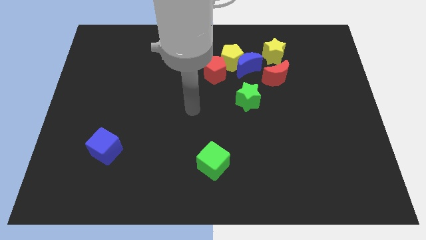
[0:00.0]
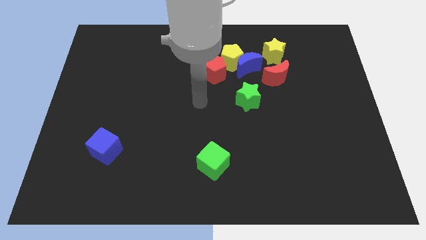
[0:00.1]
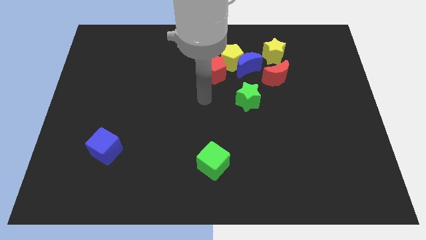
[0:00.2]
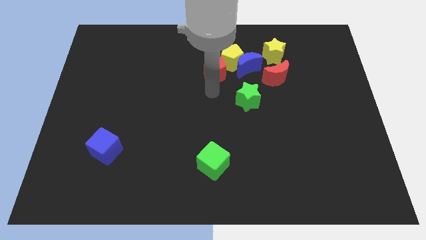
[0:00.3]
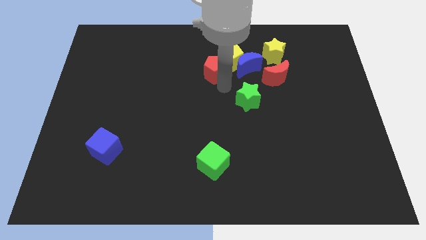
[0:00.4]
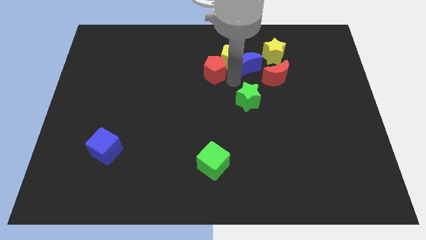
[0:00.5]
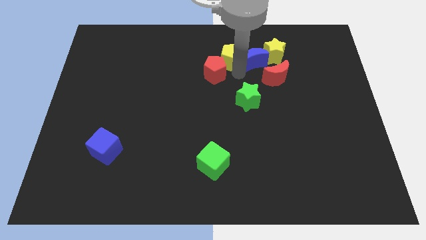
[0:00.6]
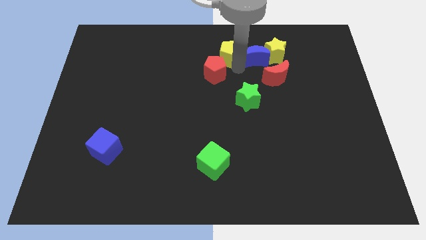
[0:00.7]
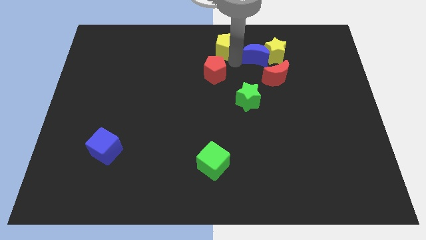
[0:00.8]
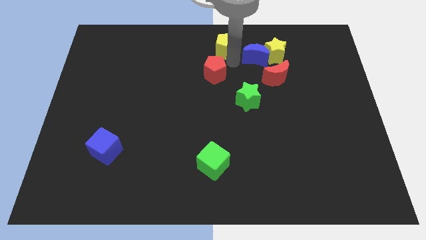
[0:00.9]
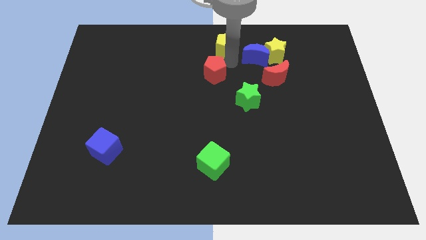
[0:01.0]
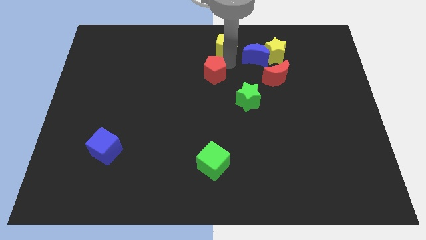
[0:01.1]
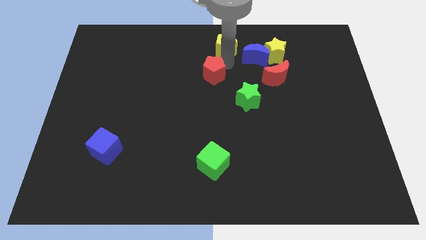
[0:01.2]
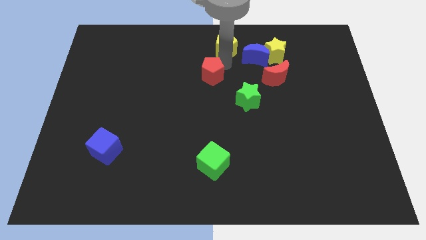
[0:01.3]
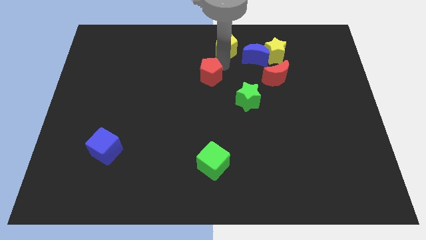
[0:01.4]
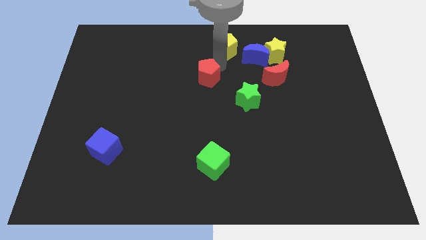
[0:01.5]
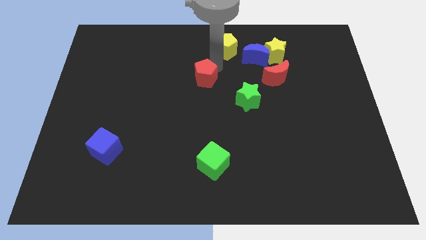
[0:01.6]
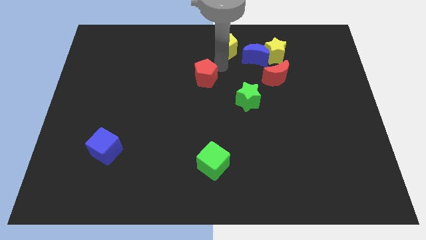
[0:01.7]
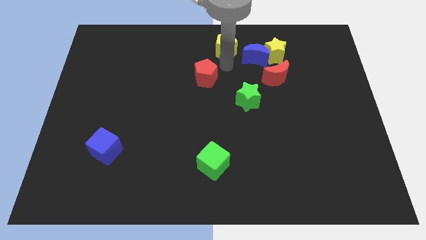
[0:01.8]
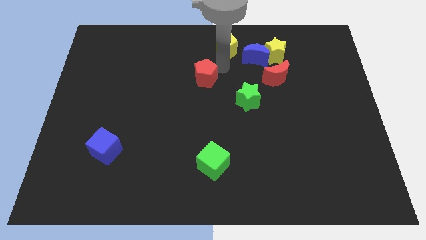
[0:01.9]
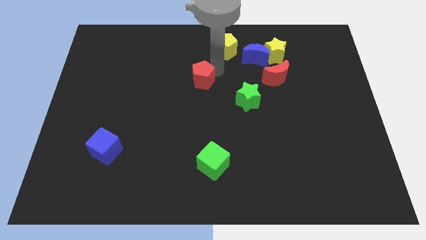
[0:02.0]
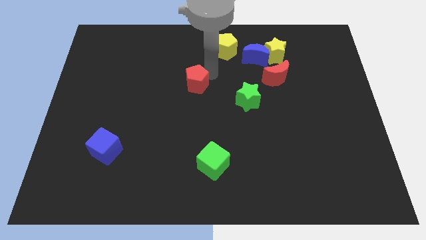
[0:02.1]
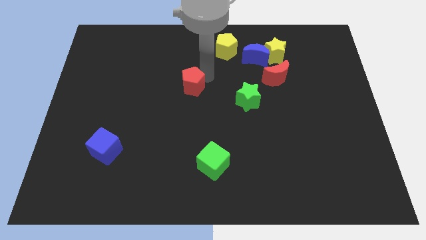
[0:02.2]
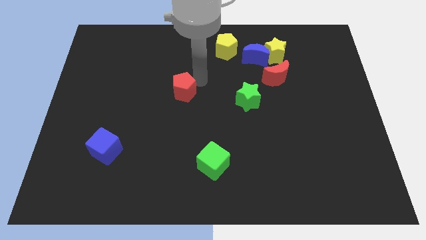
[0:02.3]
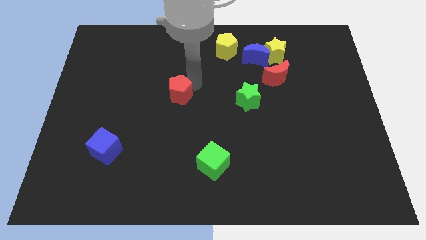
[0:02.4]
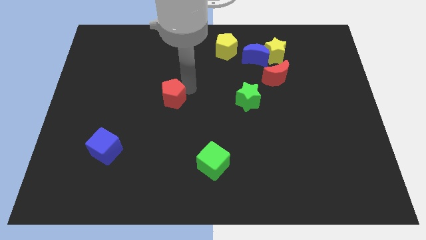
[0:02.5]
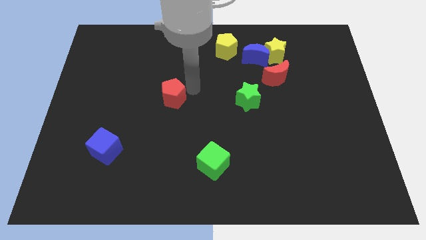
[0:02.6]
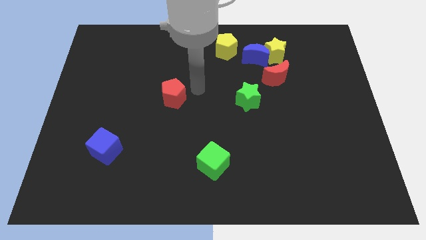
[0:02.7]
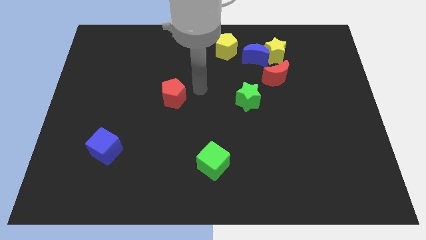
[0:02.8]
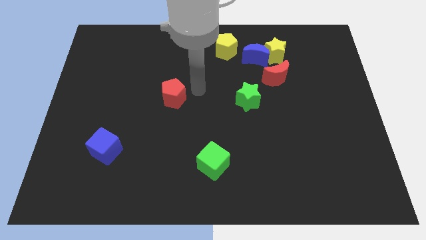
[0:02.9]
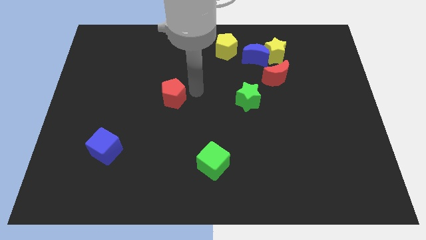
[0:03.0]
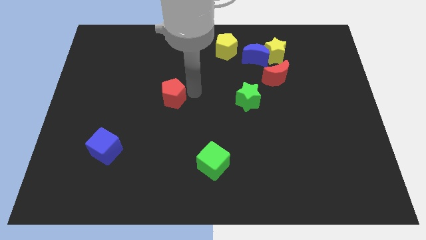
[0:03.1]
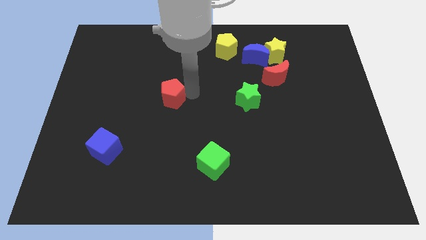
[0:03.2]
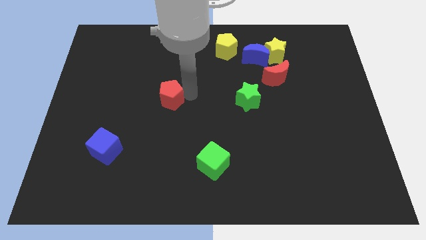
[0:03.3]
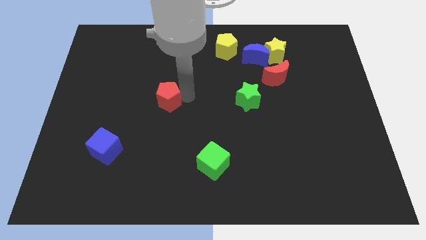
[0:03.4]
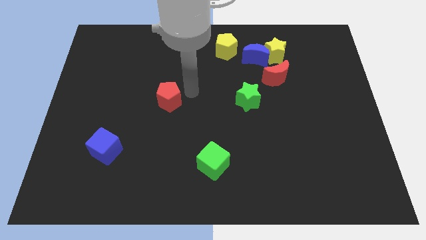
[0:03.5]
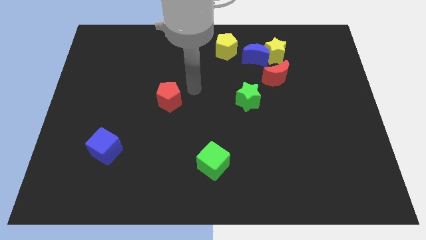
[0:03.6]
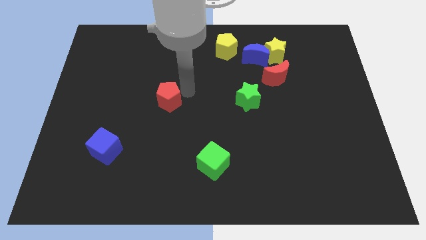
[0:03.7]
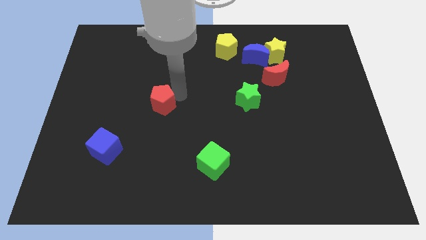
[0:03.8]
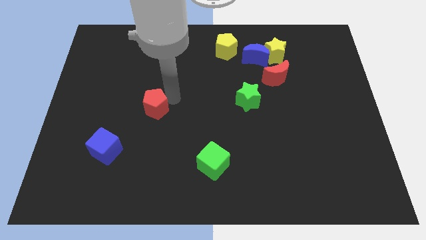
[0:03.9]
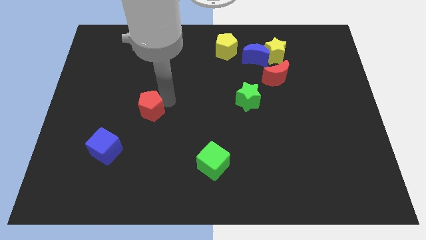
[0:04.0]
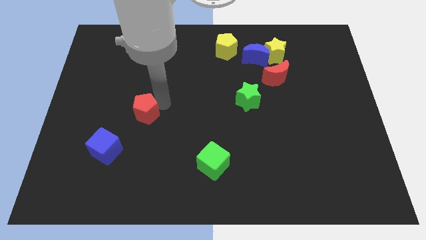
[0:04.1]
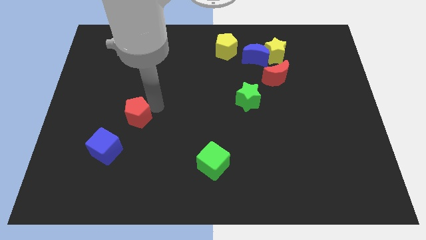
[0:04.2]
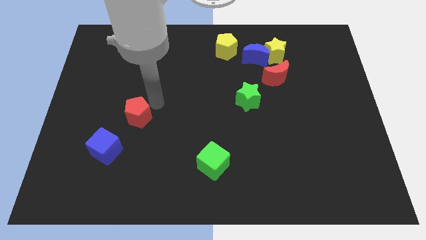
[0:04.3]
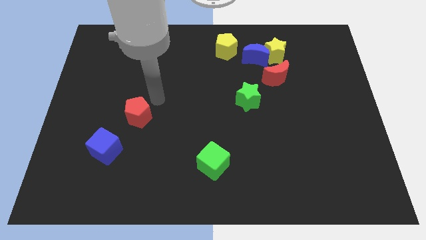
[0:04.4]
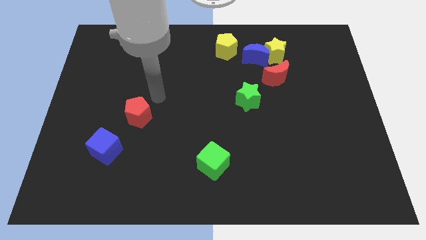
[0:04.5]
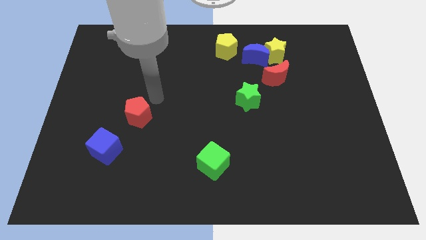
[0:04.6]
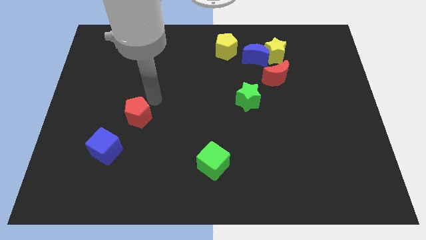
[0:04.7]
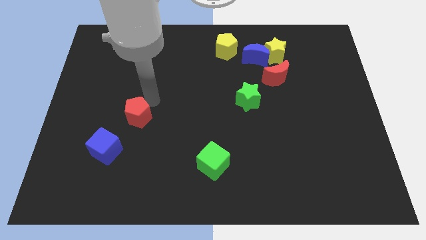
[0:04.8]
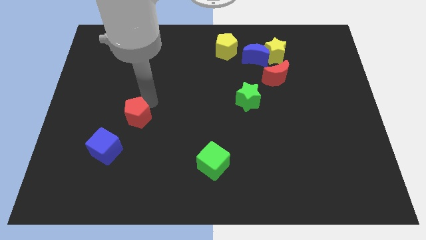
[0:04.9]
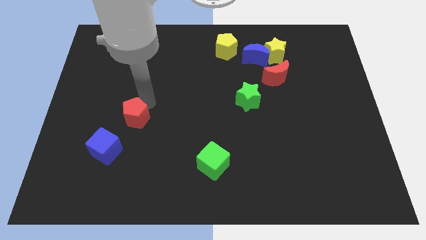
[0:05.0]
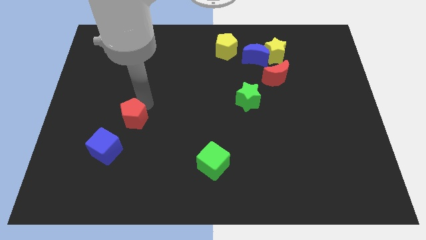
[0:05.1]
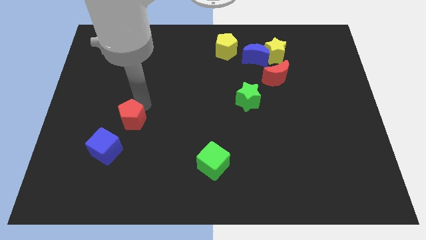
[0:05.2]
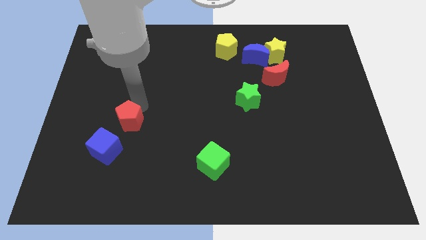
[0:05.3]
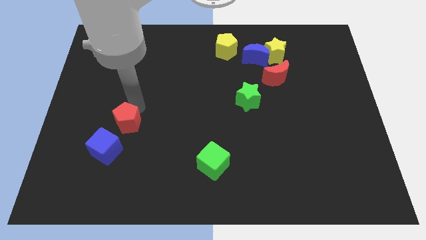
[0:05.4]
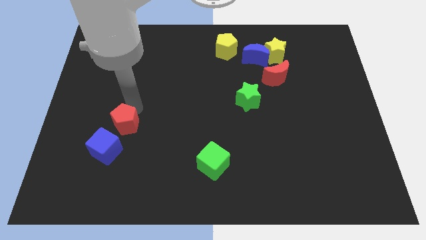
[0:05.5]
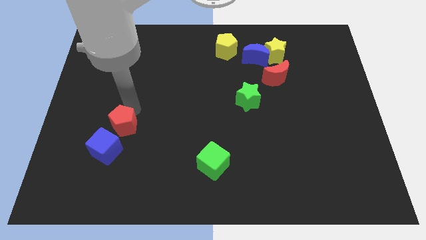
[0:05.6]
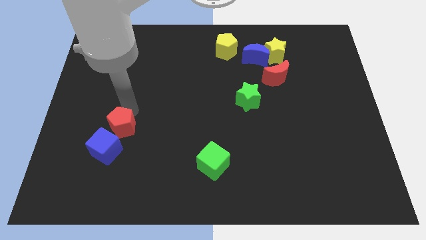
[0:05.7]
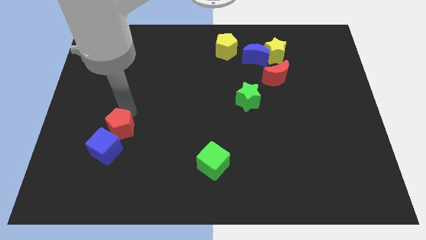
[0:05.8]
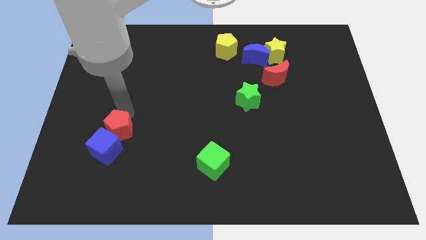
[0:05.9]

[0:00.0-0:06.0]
push the red pentagon to the blue cube

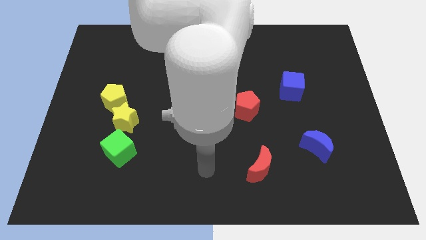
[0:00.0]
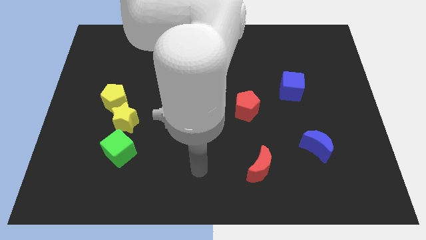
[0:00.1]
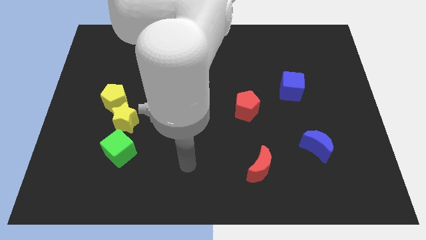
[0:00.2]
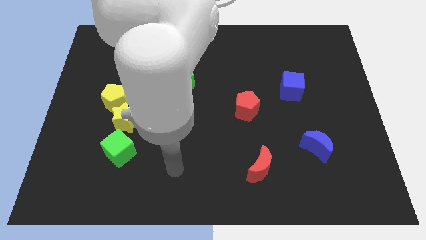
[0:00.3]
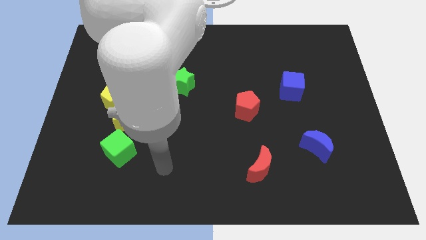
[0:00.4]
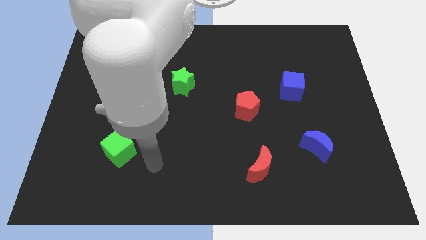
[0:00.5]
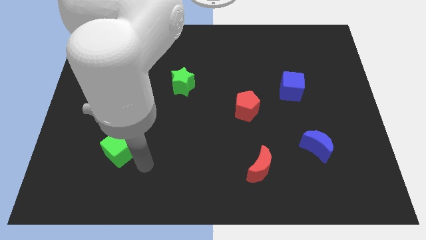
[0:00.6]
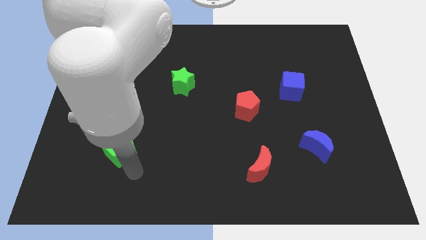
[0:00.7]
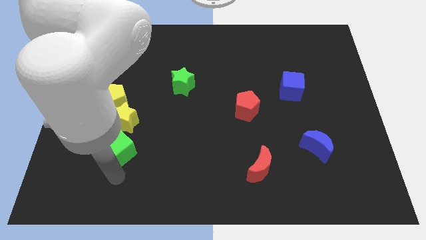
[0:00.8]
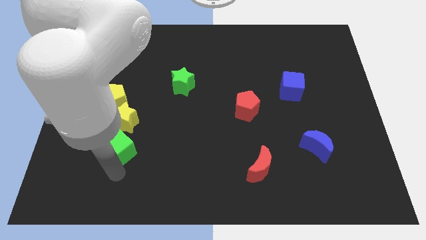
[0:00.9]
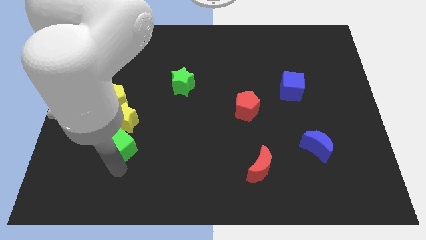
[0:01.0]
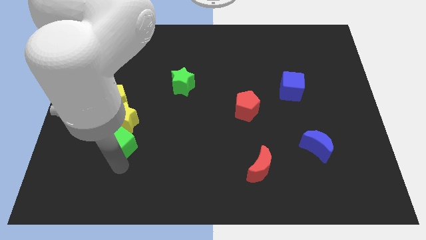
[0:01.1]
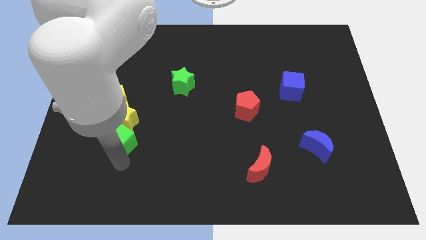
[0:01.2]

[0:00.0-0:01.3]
put the green cube towards the yellow star

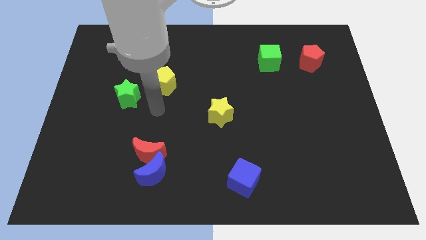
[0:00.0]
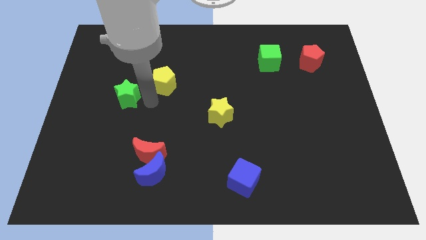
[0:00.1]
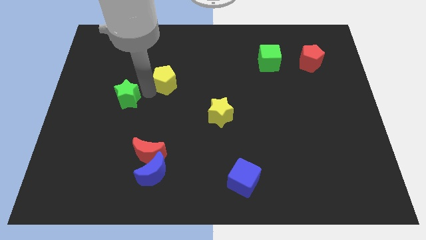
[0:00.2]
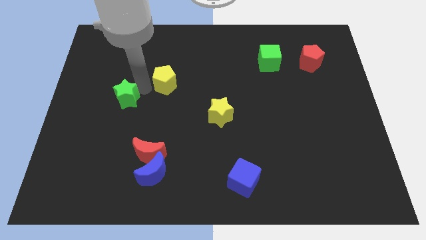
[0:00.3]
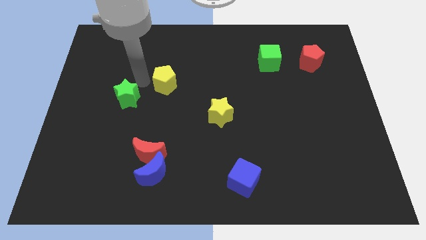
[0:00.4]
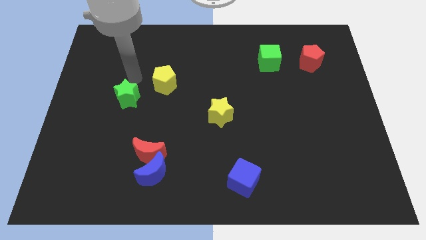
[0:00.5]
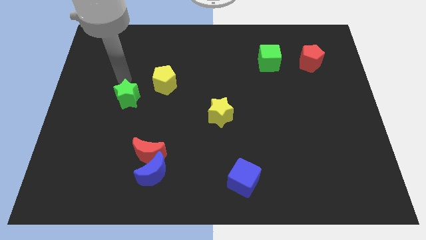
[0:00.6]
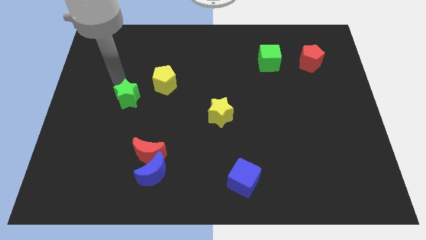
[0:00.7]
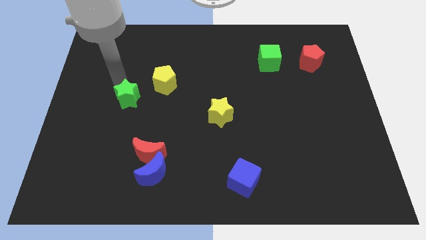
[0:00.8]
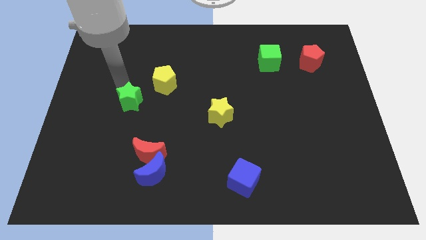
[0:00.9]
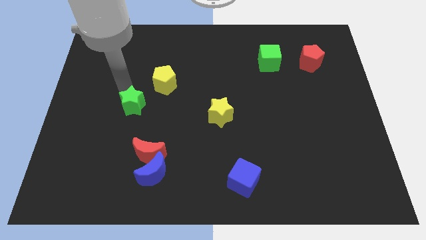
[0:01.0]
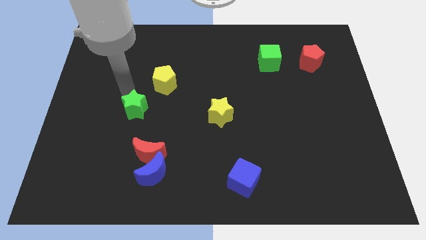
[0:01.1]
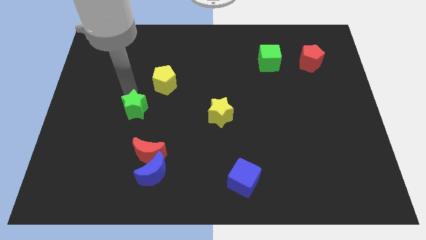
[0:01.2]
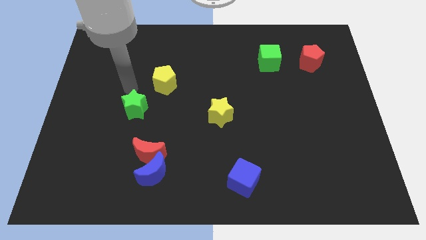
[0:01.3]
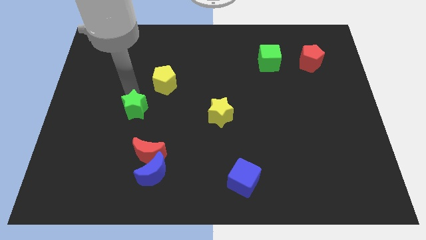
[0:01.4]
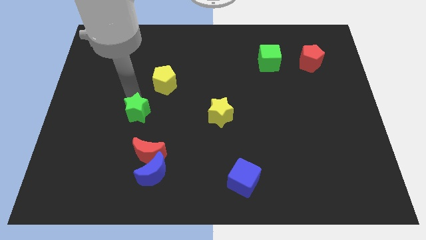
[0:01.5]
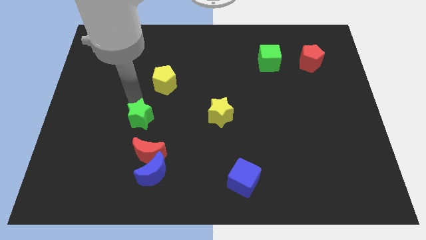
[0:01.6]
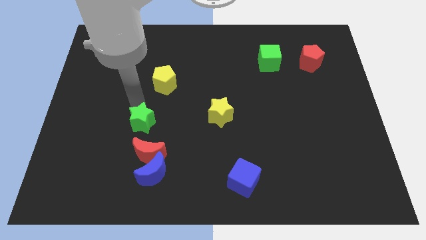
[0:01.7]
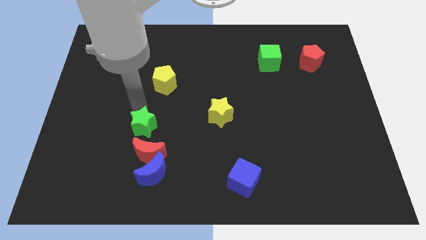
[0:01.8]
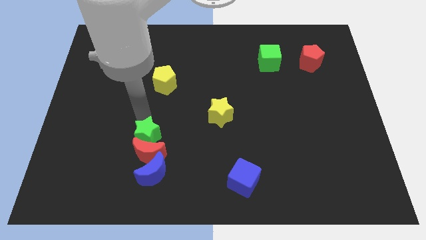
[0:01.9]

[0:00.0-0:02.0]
move the green star close to the red moon
